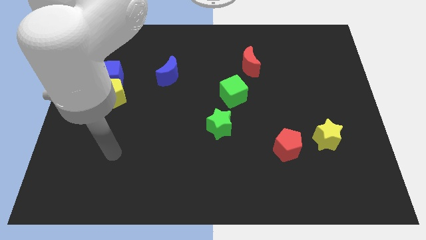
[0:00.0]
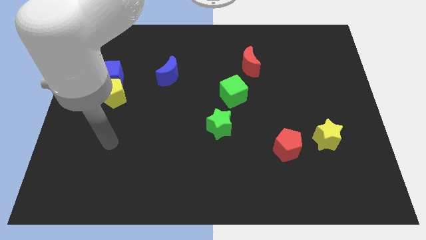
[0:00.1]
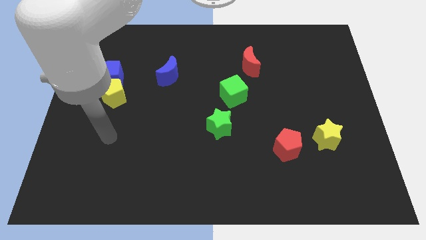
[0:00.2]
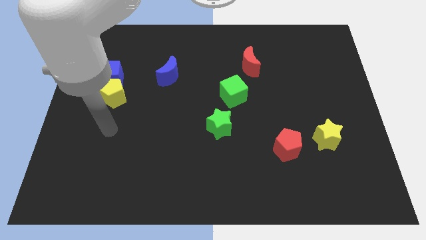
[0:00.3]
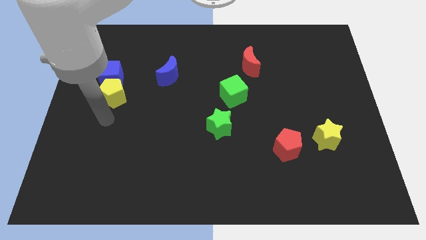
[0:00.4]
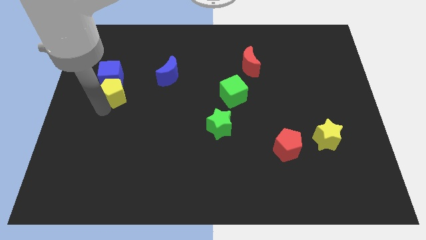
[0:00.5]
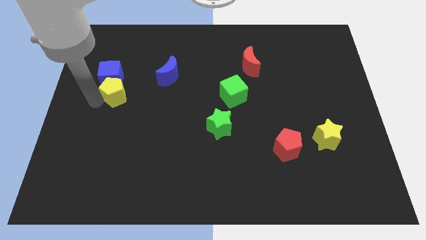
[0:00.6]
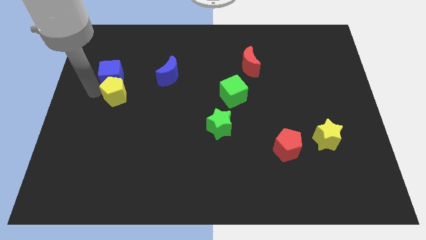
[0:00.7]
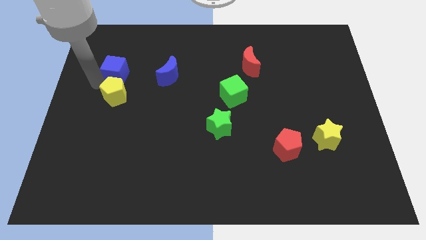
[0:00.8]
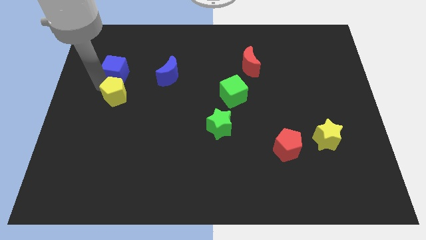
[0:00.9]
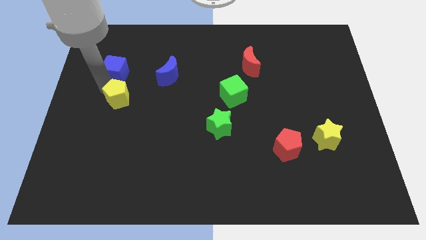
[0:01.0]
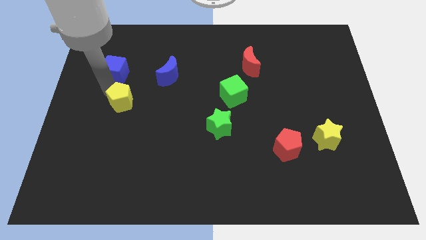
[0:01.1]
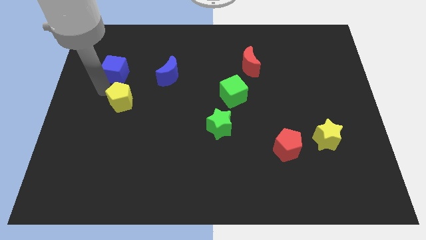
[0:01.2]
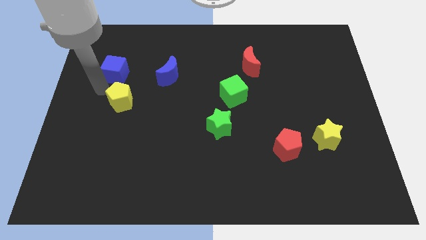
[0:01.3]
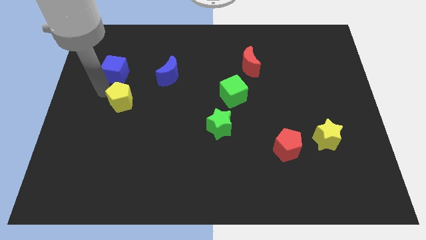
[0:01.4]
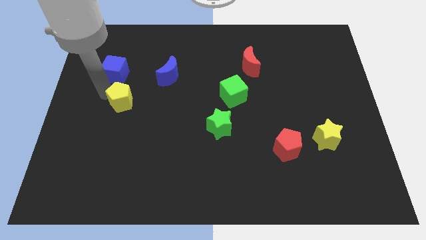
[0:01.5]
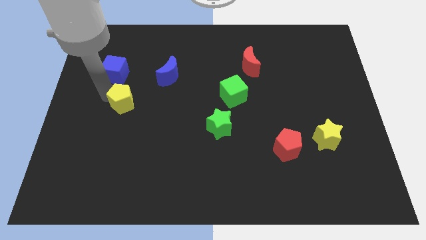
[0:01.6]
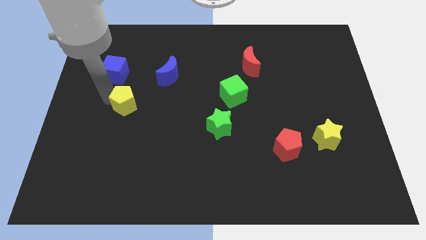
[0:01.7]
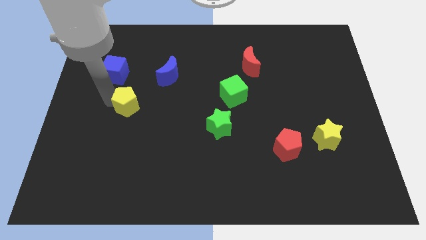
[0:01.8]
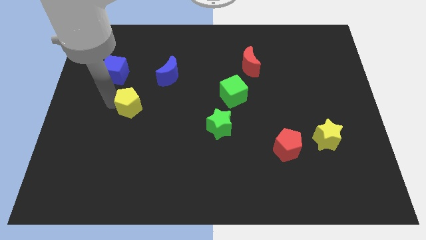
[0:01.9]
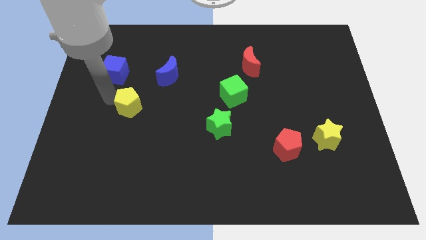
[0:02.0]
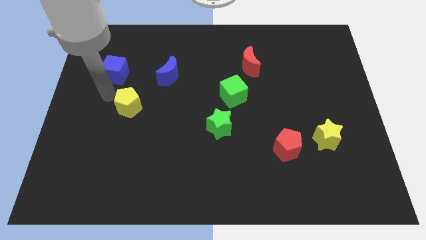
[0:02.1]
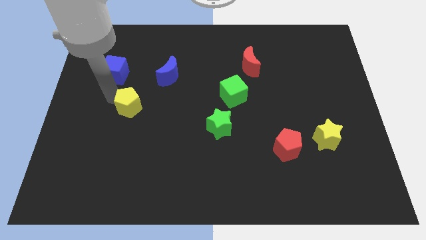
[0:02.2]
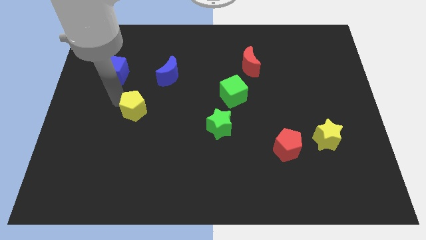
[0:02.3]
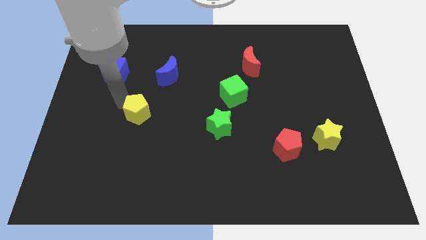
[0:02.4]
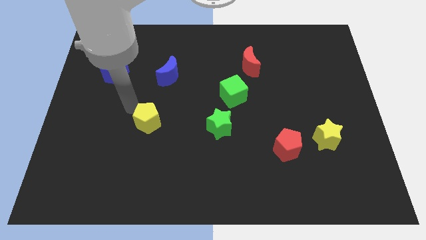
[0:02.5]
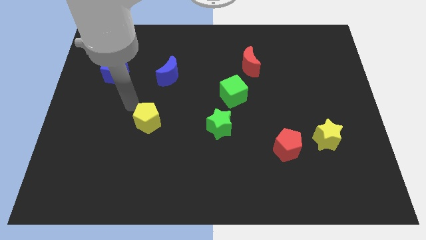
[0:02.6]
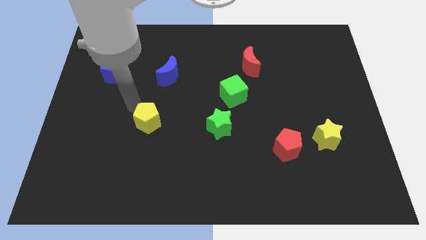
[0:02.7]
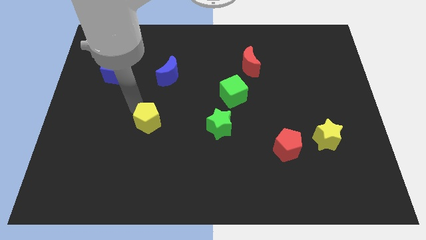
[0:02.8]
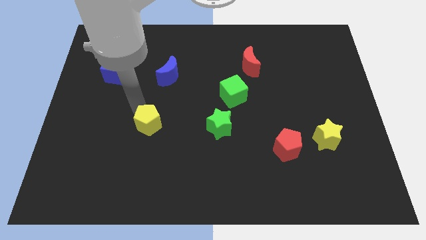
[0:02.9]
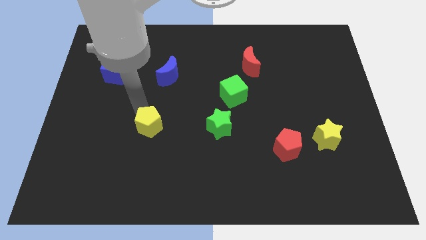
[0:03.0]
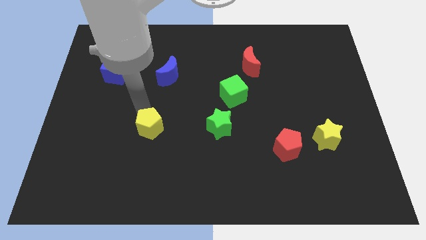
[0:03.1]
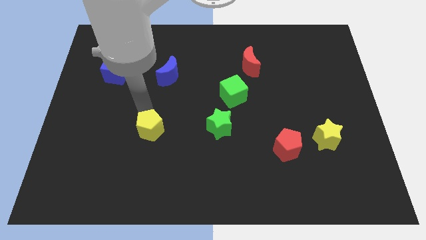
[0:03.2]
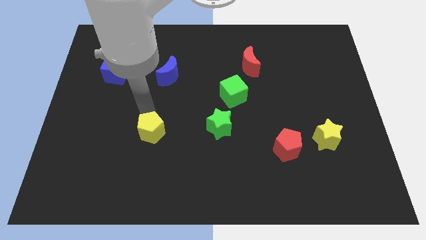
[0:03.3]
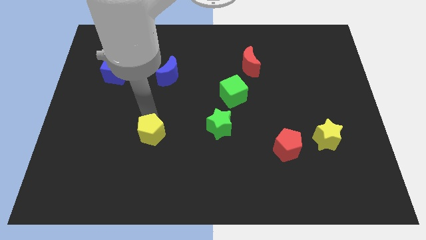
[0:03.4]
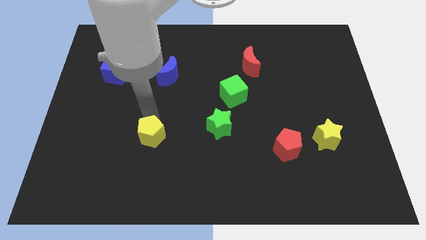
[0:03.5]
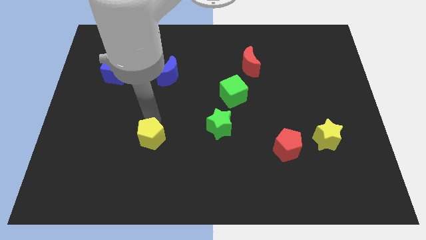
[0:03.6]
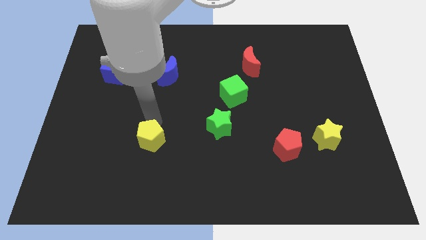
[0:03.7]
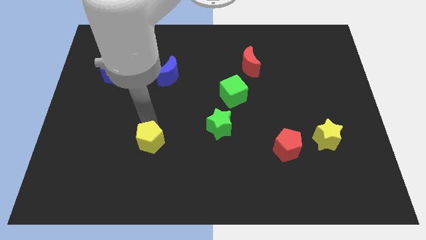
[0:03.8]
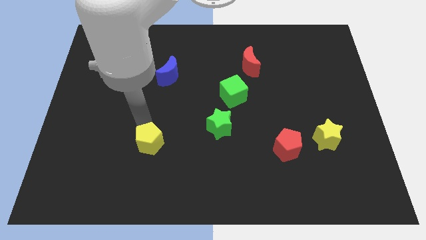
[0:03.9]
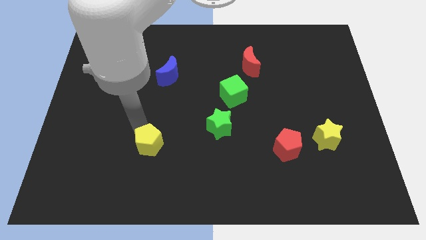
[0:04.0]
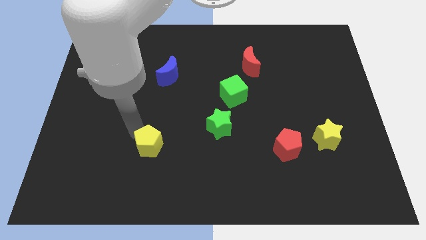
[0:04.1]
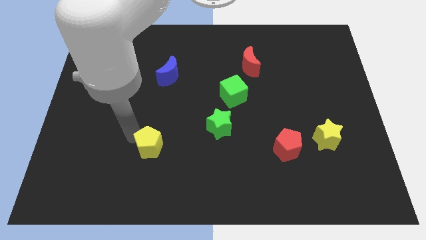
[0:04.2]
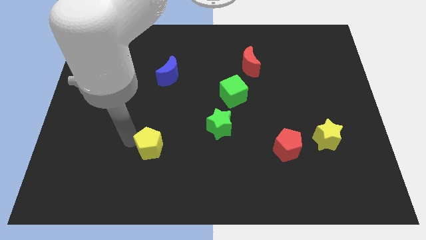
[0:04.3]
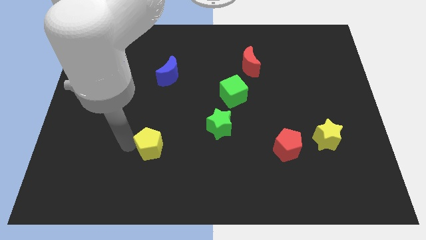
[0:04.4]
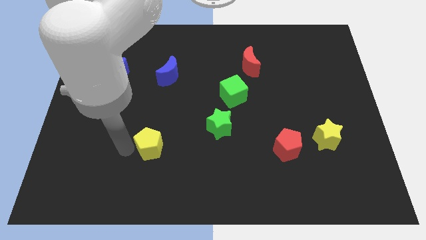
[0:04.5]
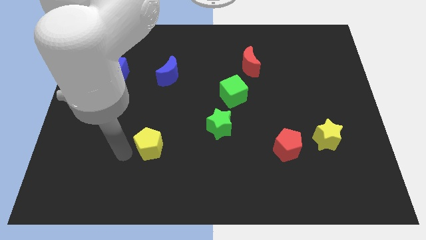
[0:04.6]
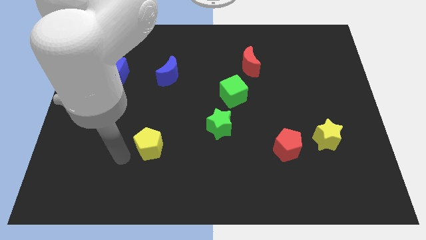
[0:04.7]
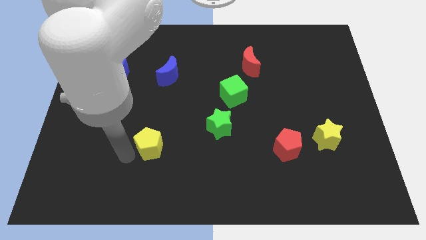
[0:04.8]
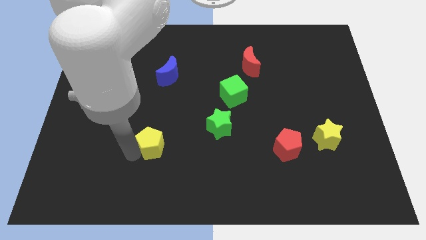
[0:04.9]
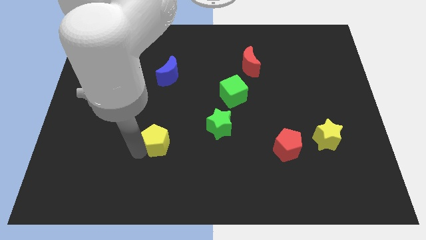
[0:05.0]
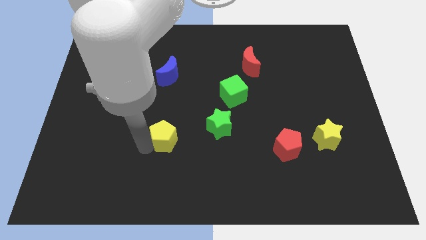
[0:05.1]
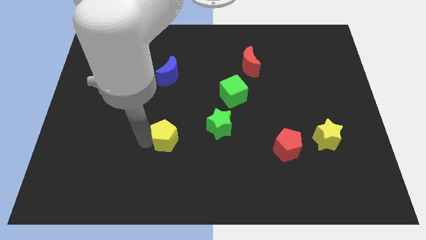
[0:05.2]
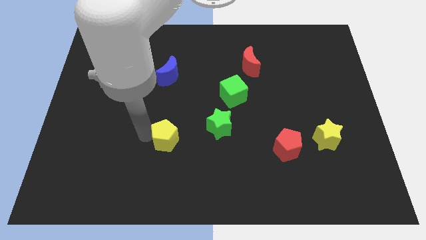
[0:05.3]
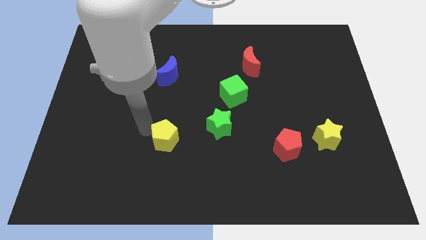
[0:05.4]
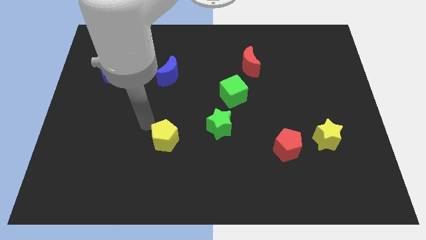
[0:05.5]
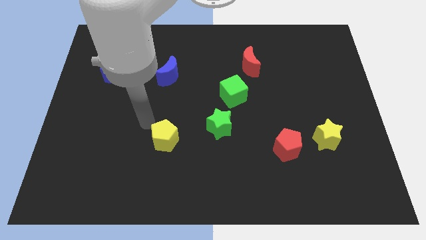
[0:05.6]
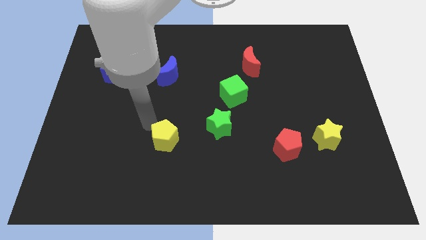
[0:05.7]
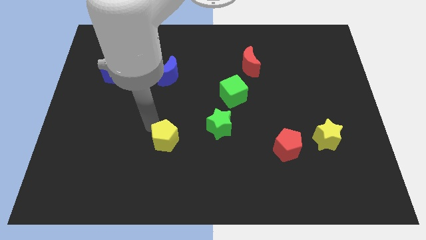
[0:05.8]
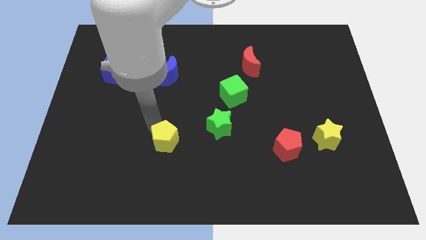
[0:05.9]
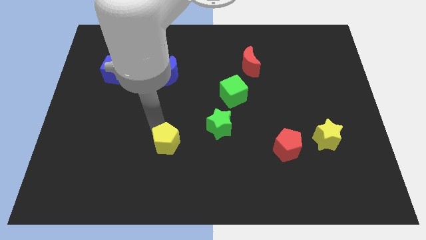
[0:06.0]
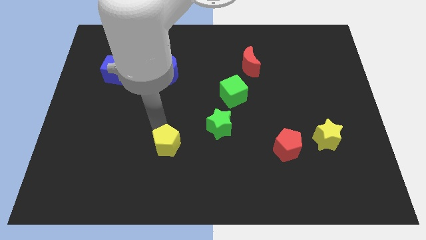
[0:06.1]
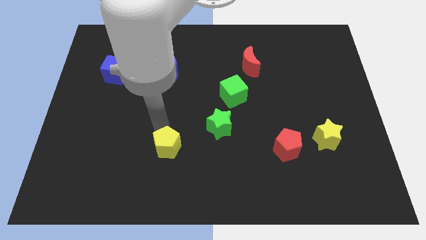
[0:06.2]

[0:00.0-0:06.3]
slide the yellow pentagon diagonally down and right

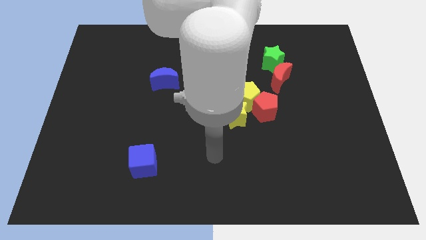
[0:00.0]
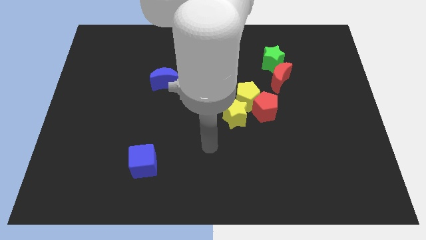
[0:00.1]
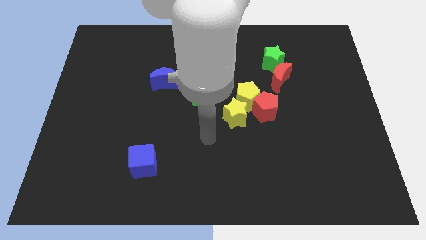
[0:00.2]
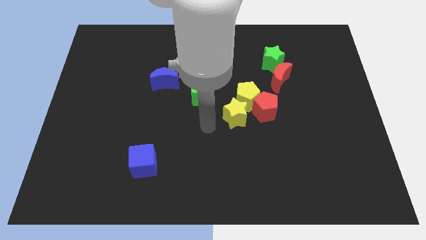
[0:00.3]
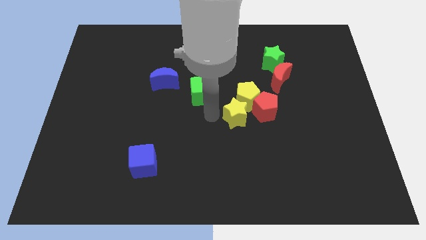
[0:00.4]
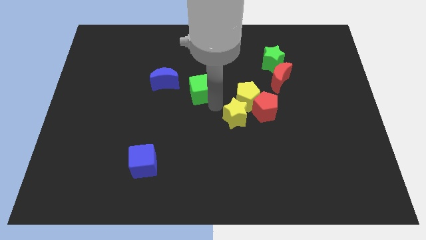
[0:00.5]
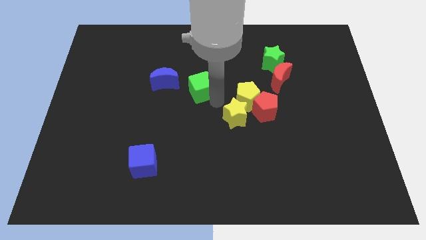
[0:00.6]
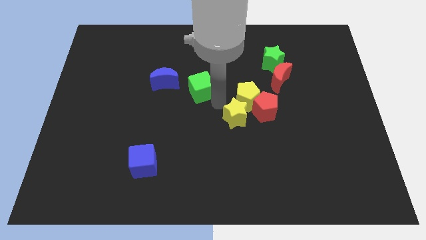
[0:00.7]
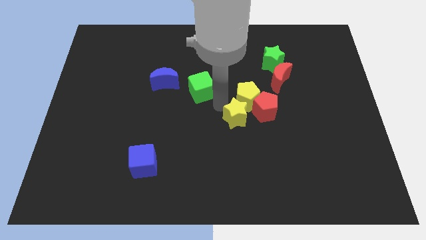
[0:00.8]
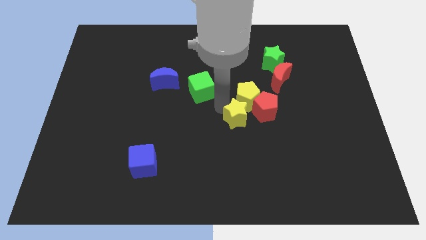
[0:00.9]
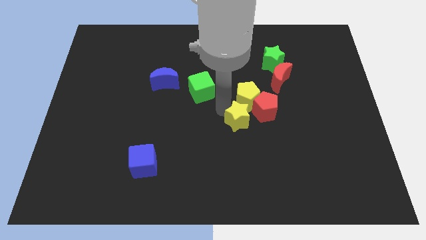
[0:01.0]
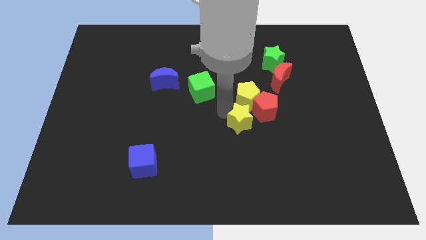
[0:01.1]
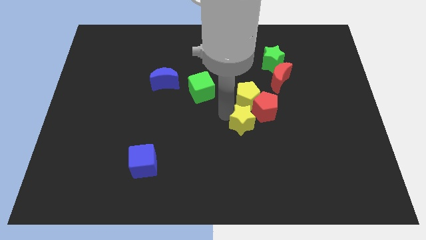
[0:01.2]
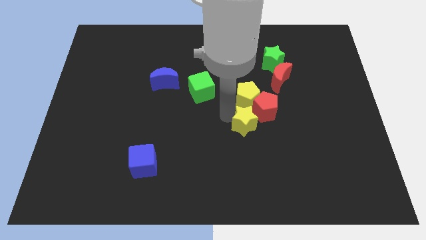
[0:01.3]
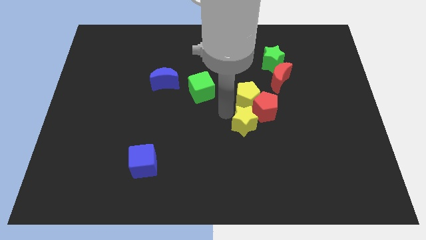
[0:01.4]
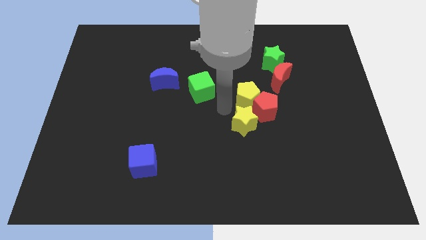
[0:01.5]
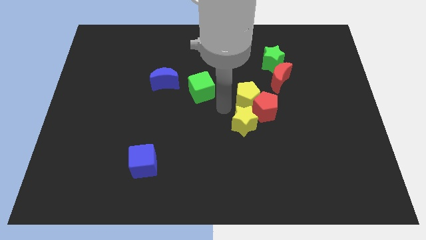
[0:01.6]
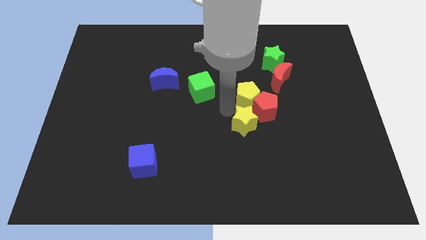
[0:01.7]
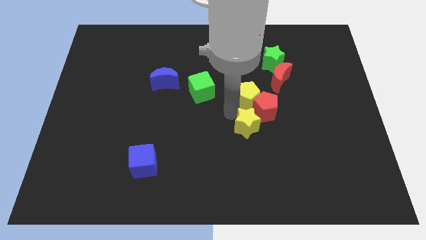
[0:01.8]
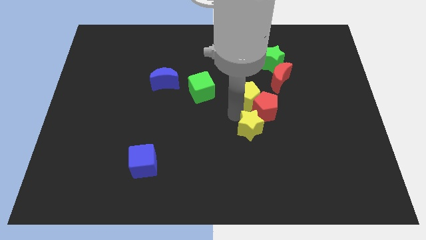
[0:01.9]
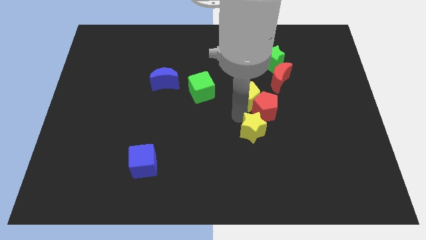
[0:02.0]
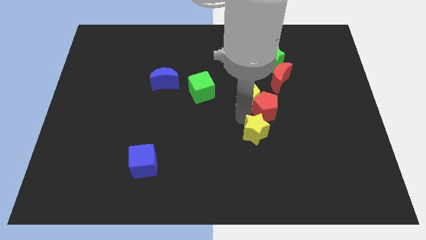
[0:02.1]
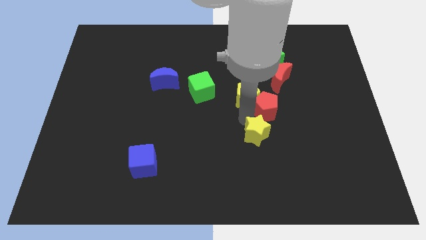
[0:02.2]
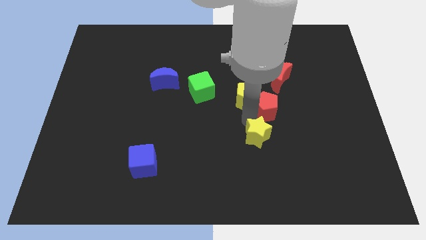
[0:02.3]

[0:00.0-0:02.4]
push the yellow star downwards and right a little
